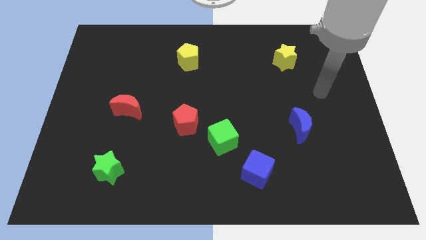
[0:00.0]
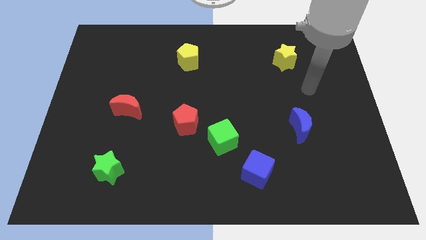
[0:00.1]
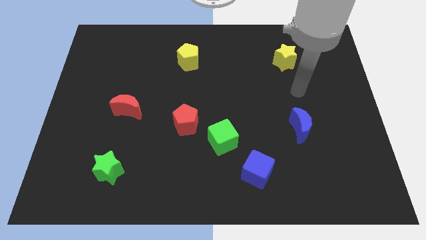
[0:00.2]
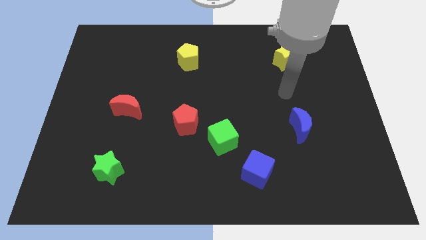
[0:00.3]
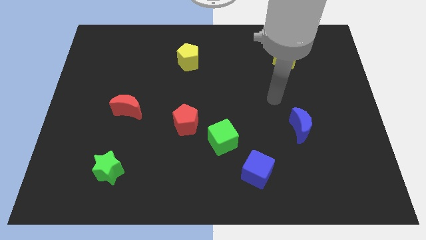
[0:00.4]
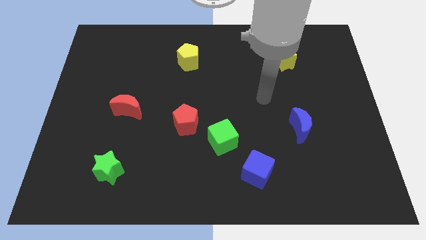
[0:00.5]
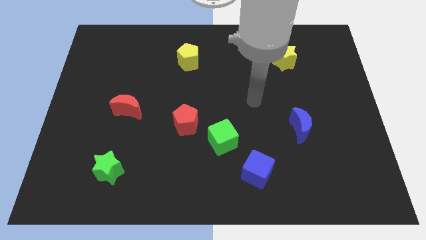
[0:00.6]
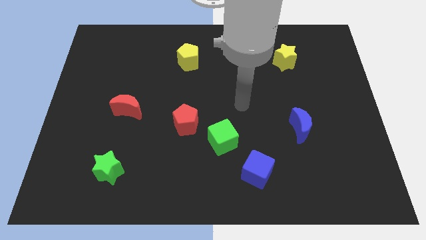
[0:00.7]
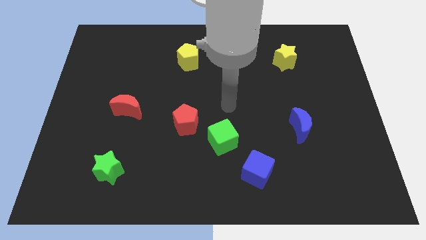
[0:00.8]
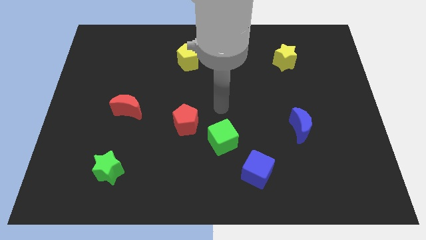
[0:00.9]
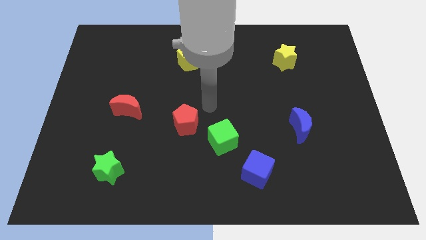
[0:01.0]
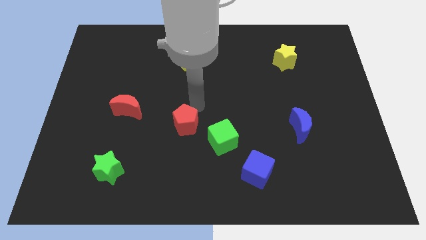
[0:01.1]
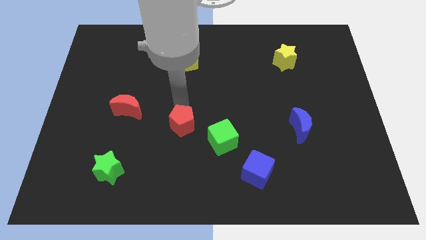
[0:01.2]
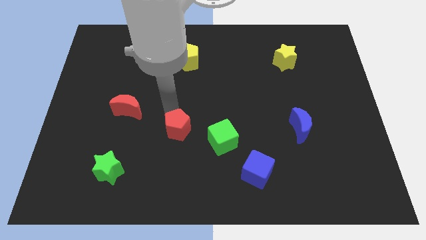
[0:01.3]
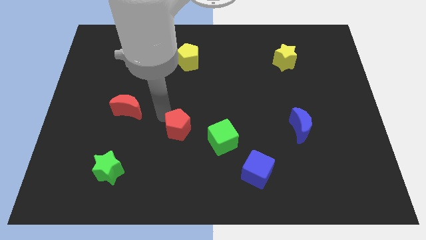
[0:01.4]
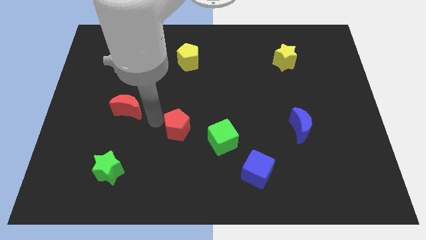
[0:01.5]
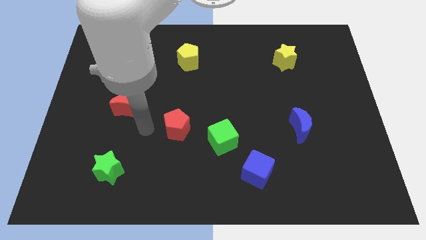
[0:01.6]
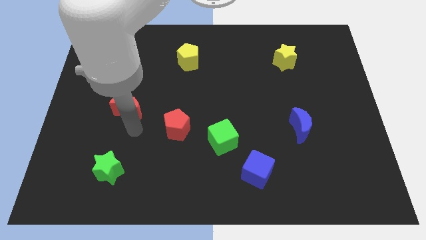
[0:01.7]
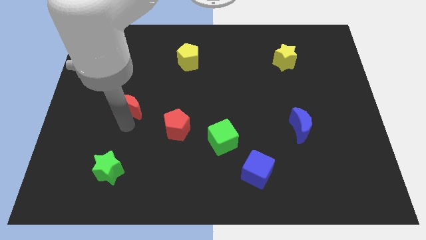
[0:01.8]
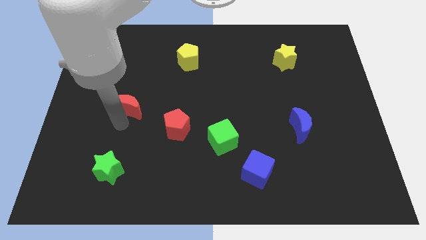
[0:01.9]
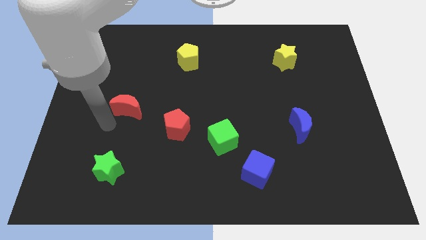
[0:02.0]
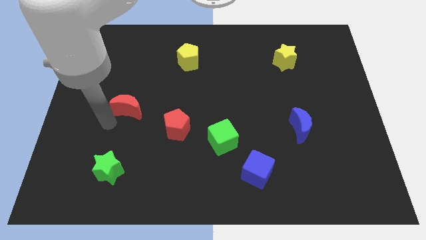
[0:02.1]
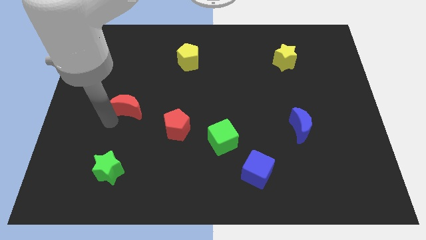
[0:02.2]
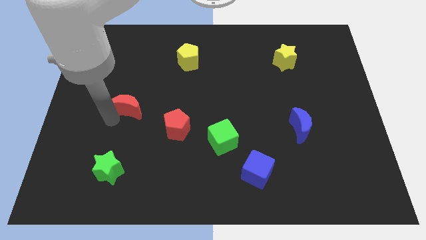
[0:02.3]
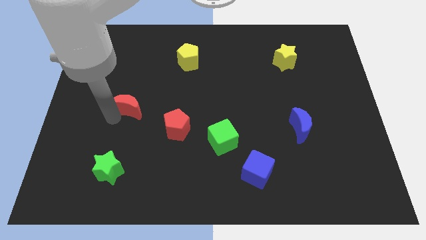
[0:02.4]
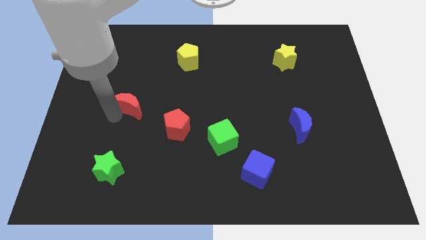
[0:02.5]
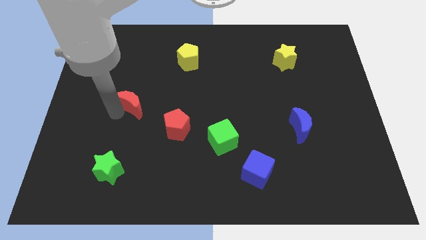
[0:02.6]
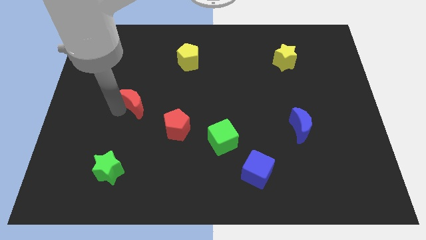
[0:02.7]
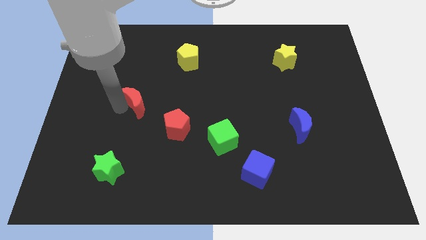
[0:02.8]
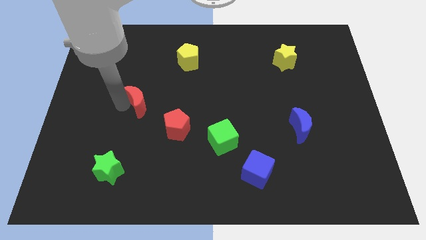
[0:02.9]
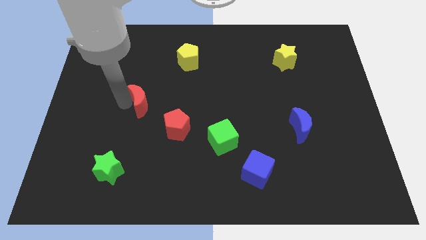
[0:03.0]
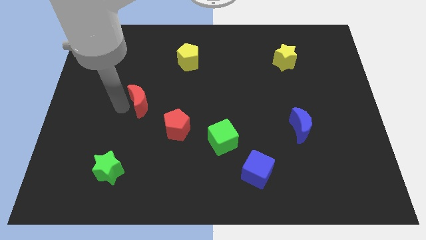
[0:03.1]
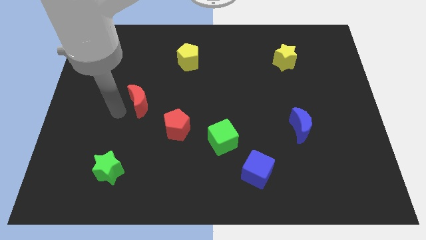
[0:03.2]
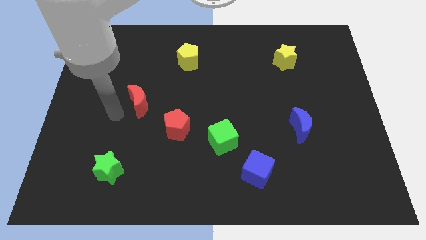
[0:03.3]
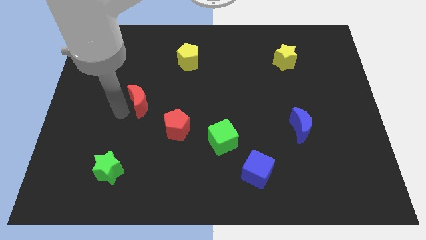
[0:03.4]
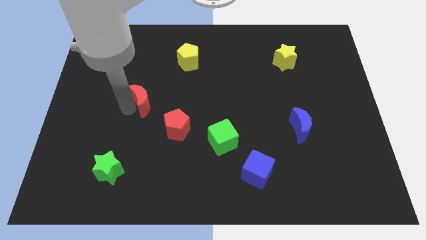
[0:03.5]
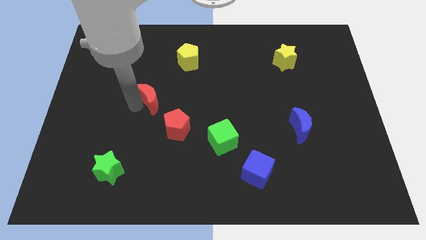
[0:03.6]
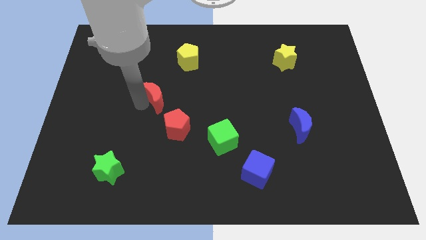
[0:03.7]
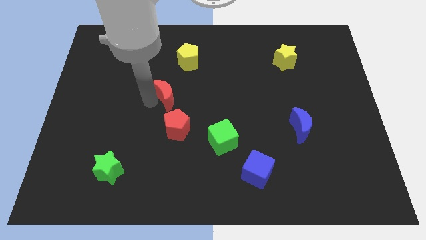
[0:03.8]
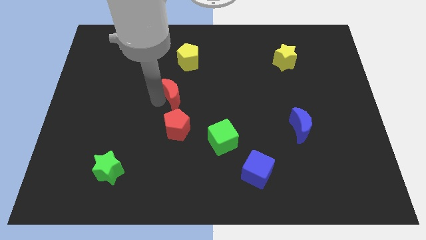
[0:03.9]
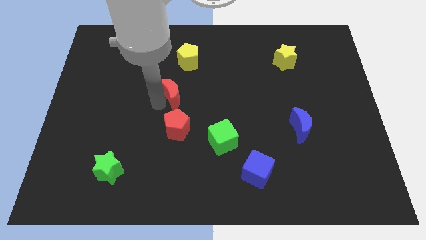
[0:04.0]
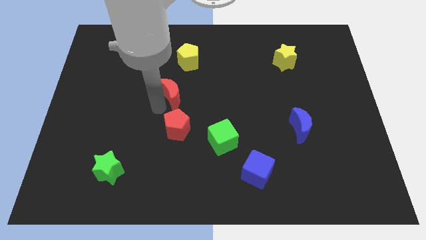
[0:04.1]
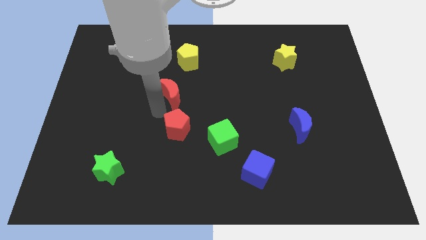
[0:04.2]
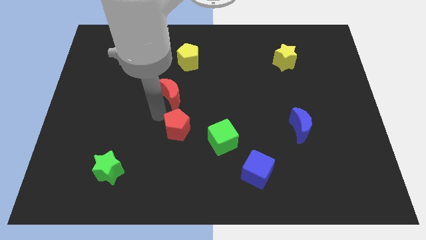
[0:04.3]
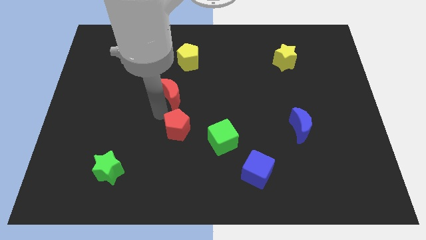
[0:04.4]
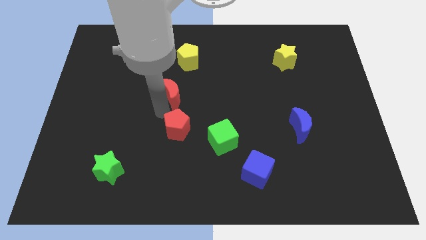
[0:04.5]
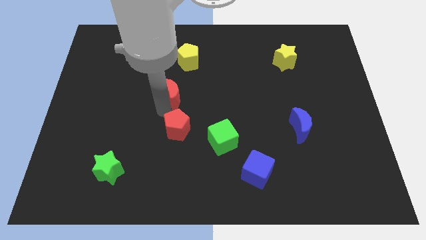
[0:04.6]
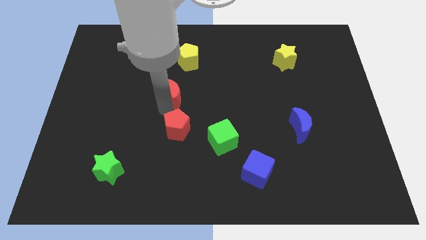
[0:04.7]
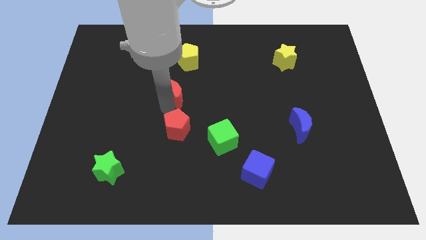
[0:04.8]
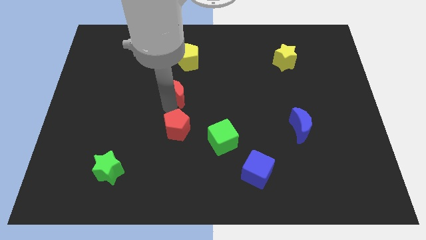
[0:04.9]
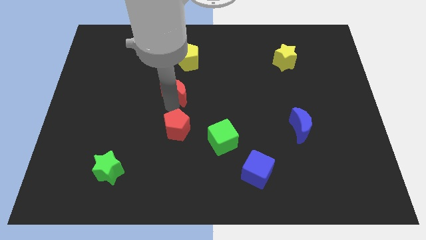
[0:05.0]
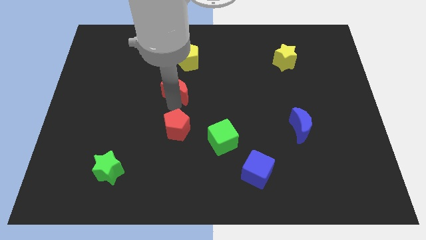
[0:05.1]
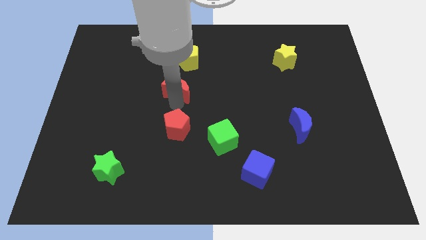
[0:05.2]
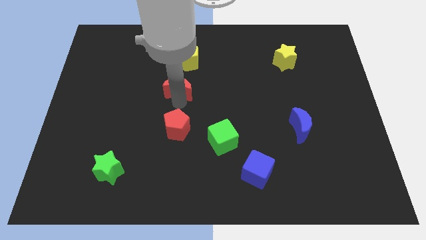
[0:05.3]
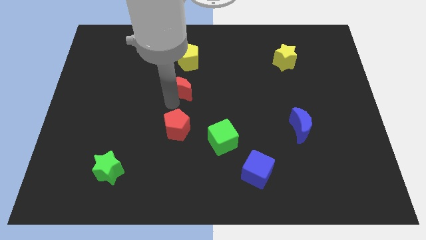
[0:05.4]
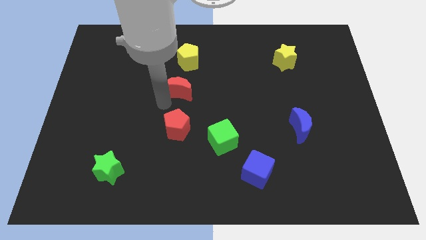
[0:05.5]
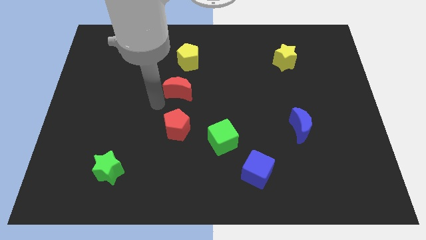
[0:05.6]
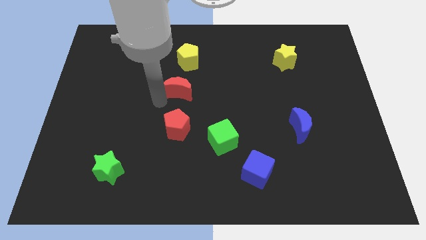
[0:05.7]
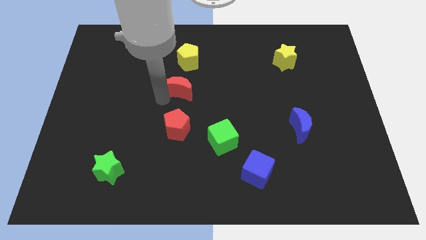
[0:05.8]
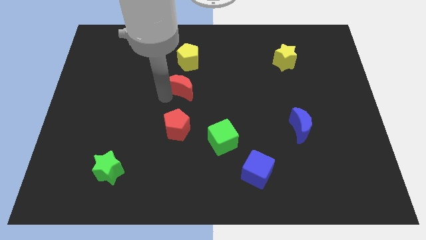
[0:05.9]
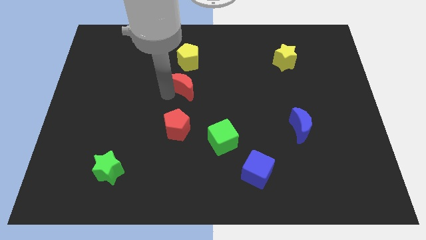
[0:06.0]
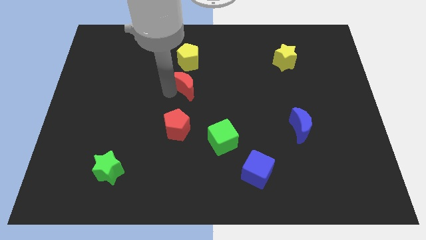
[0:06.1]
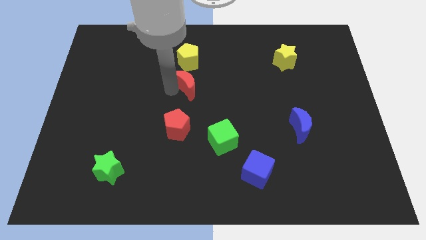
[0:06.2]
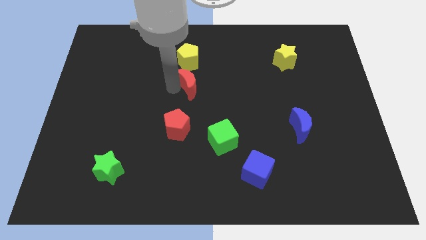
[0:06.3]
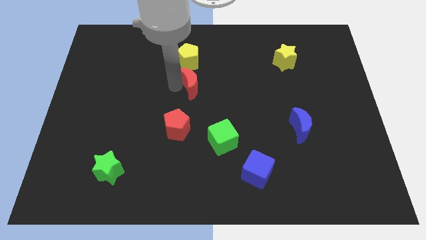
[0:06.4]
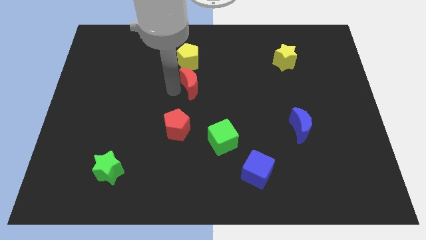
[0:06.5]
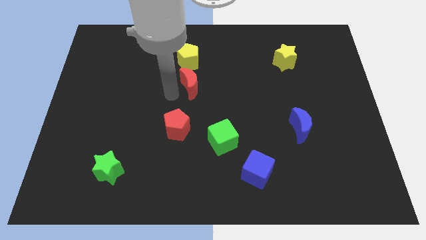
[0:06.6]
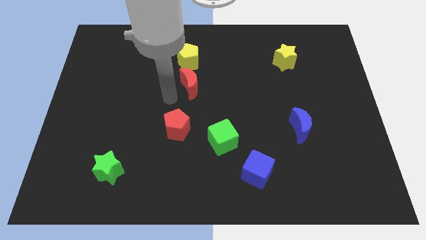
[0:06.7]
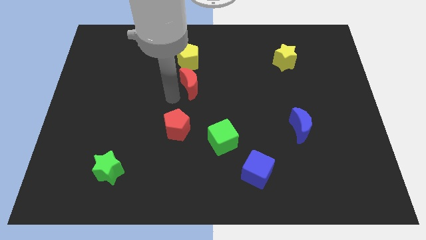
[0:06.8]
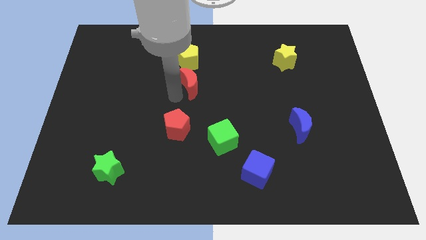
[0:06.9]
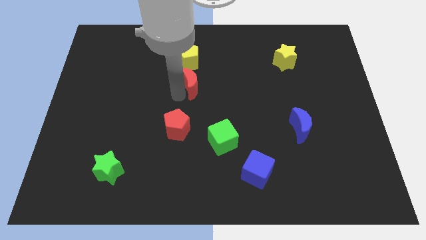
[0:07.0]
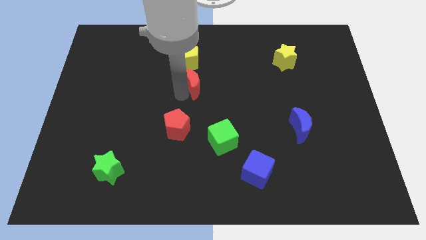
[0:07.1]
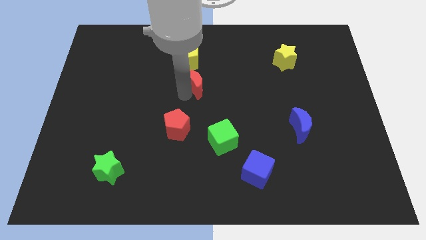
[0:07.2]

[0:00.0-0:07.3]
slide the red moon diagonally down and to the right of the yellow pentagon

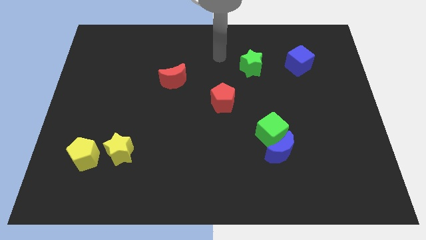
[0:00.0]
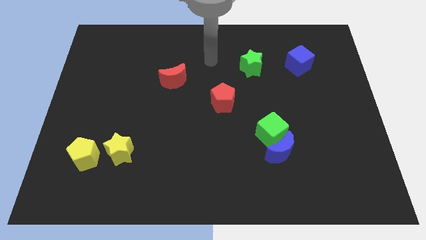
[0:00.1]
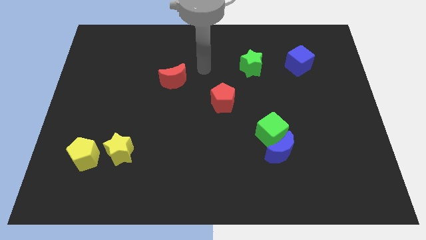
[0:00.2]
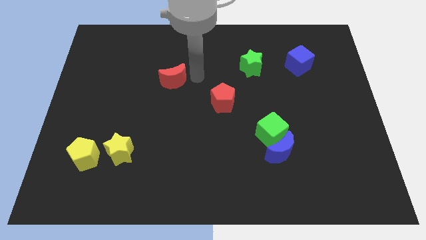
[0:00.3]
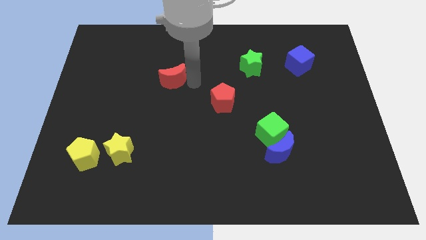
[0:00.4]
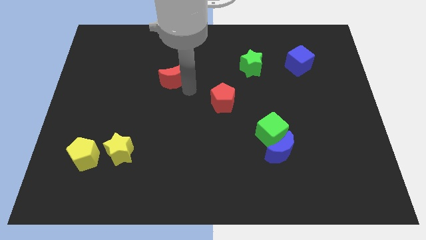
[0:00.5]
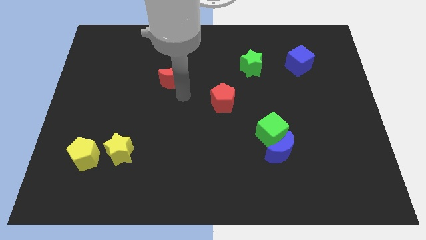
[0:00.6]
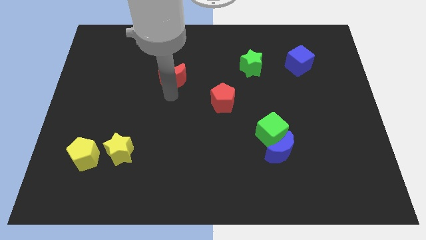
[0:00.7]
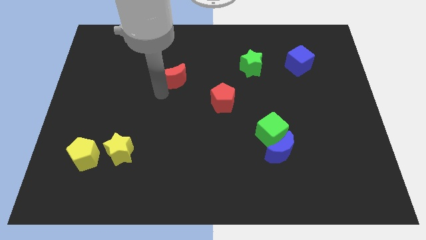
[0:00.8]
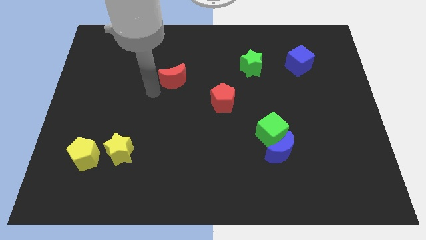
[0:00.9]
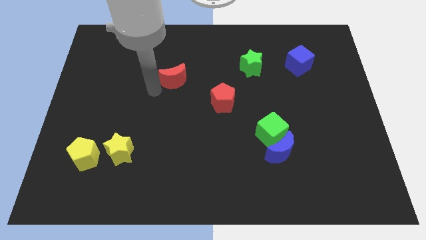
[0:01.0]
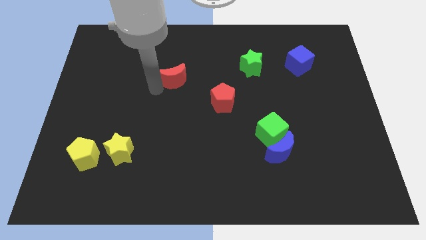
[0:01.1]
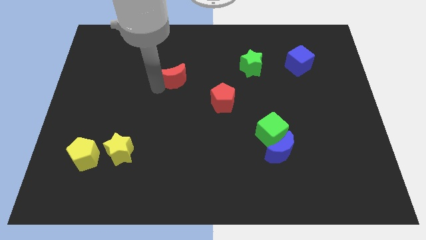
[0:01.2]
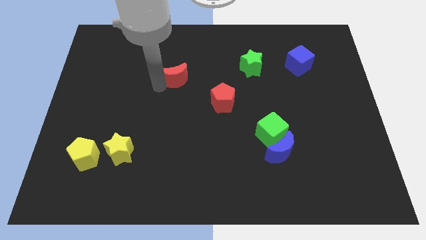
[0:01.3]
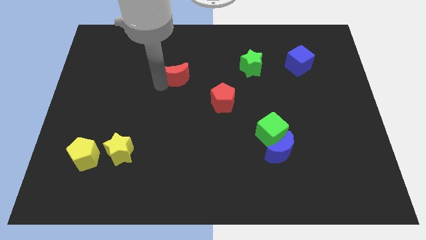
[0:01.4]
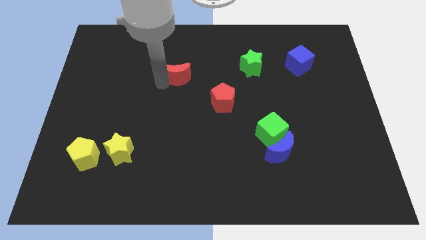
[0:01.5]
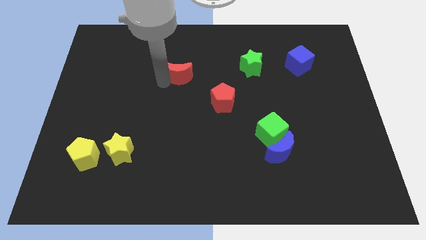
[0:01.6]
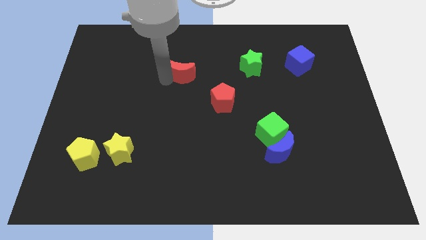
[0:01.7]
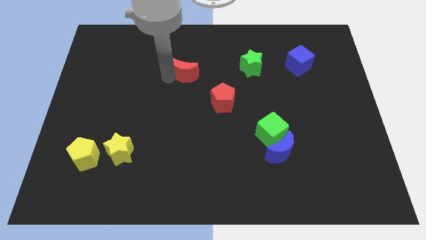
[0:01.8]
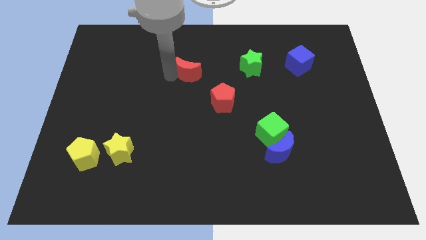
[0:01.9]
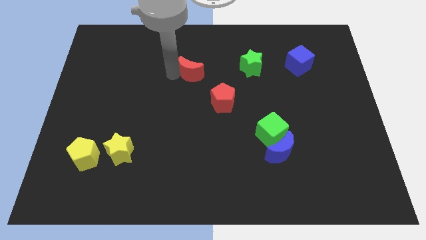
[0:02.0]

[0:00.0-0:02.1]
put the red moon left of the green star
